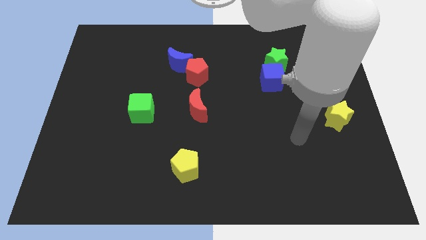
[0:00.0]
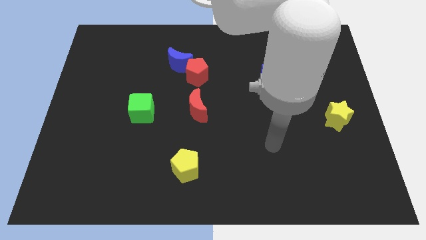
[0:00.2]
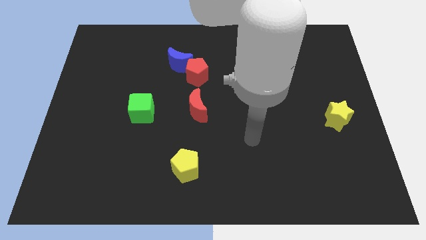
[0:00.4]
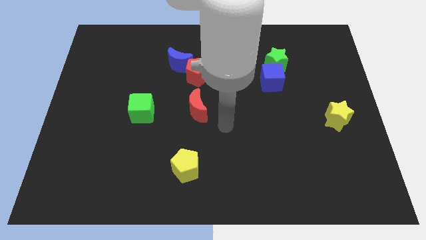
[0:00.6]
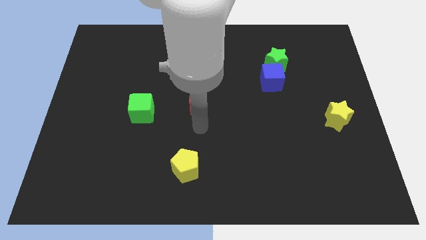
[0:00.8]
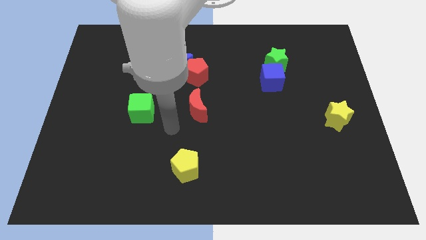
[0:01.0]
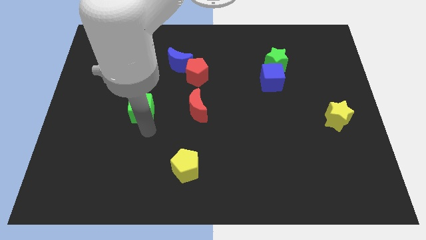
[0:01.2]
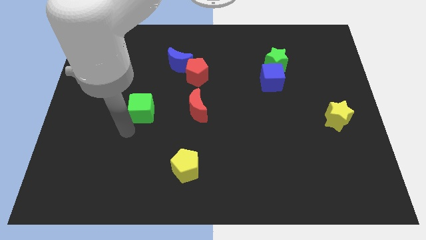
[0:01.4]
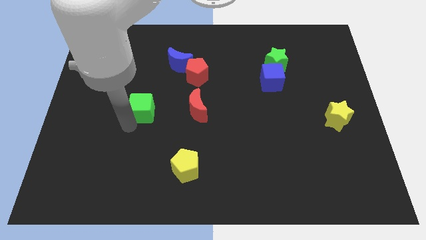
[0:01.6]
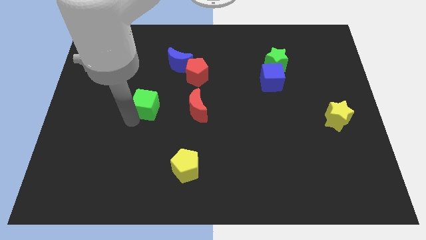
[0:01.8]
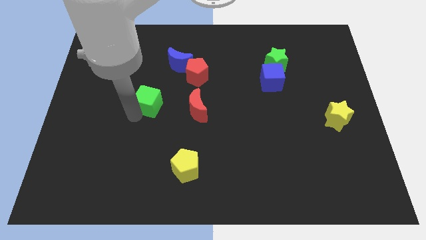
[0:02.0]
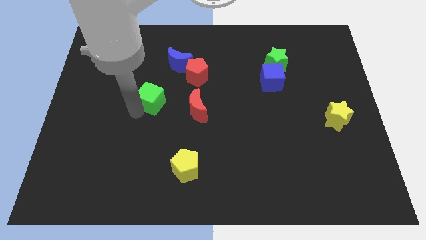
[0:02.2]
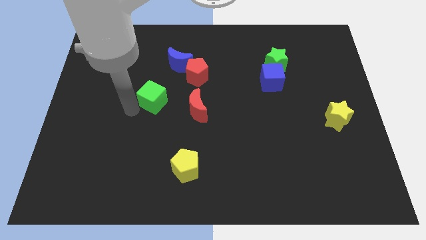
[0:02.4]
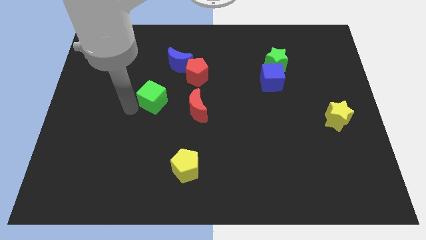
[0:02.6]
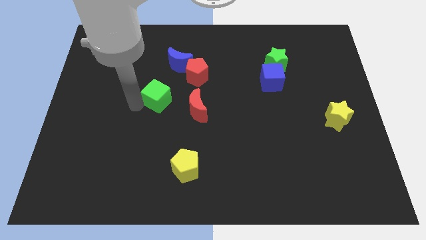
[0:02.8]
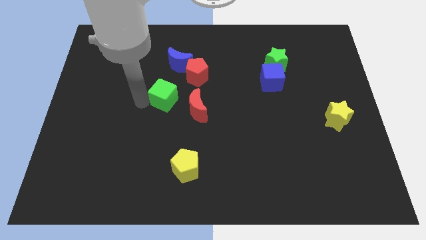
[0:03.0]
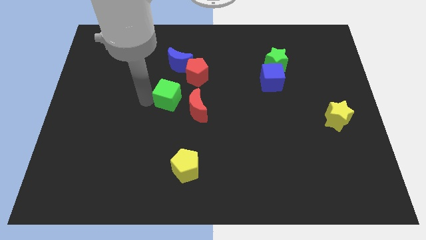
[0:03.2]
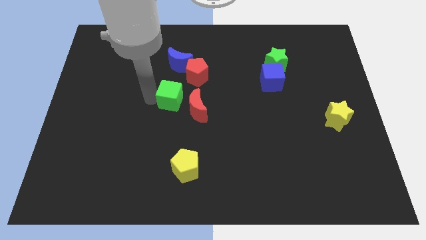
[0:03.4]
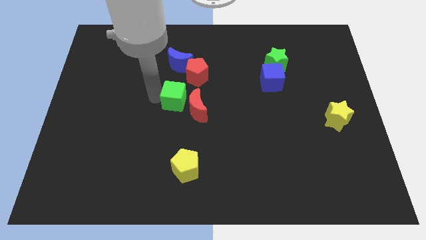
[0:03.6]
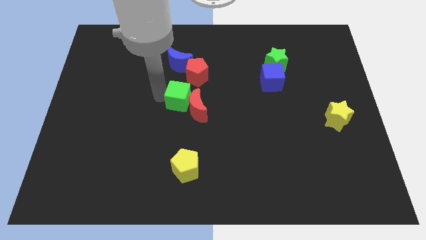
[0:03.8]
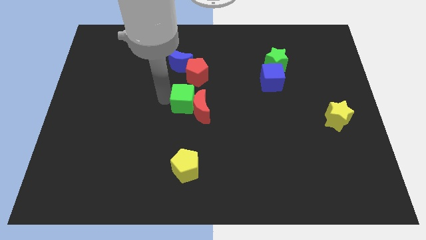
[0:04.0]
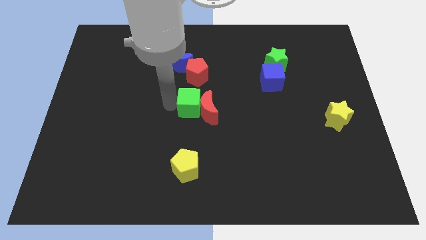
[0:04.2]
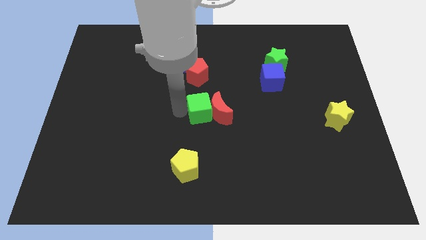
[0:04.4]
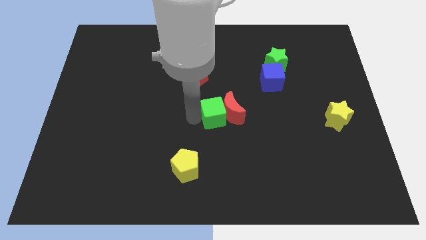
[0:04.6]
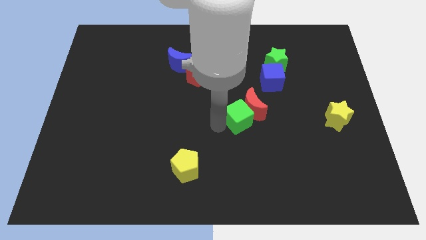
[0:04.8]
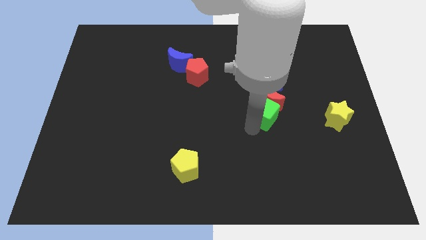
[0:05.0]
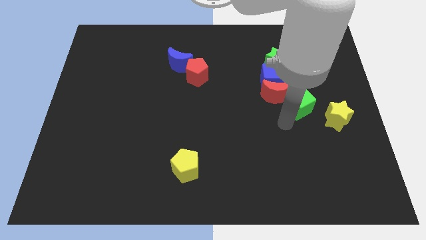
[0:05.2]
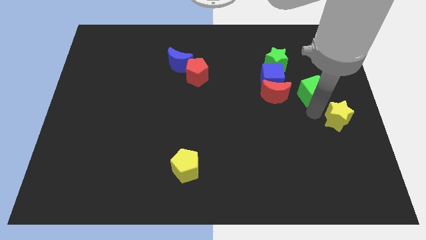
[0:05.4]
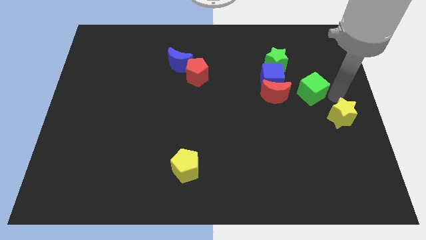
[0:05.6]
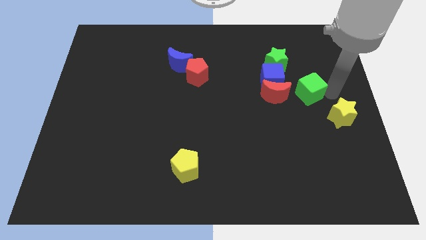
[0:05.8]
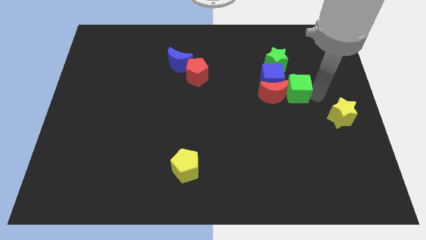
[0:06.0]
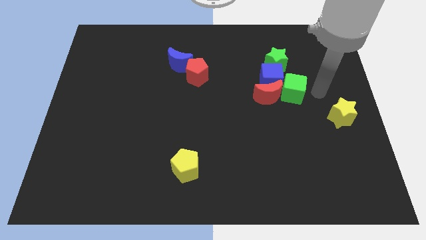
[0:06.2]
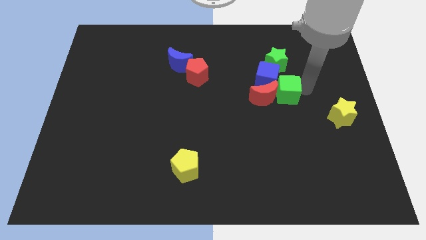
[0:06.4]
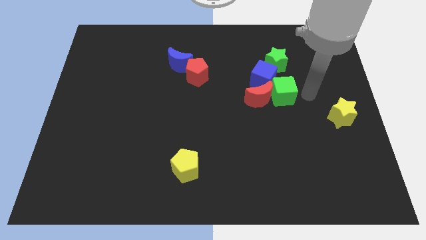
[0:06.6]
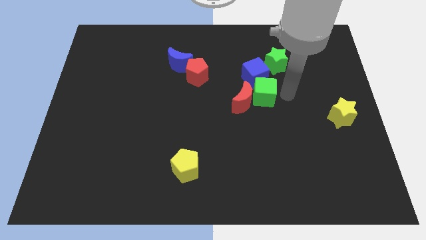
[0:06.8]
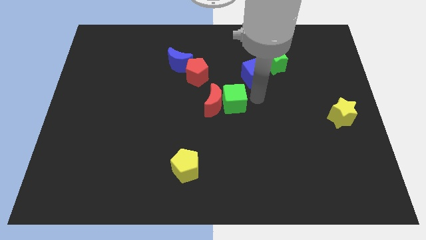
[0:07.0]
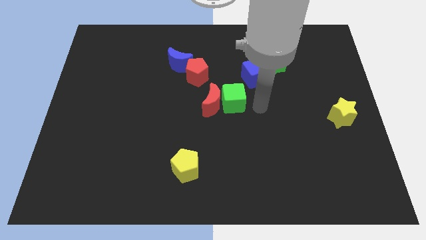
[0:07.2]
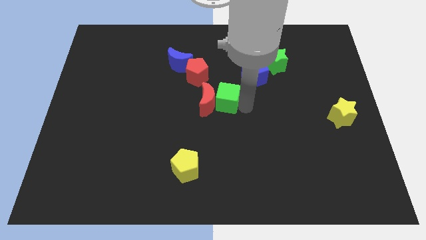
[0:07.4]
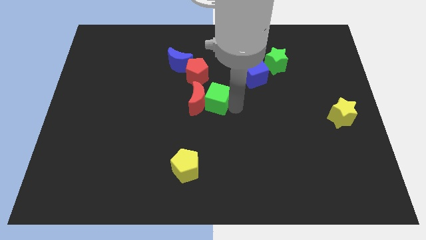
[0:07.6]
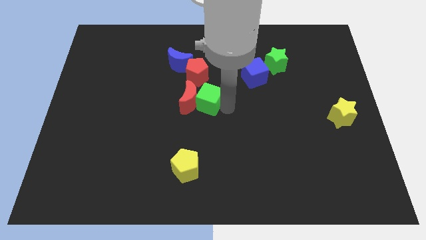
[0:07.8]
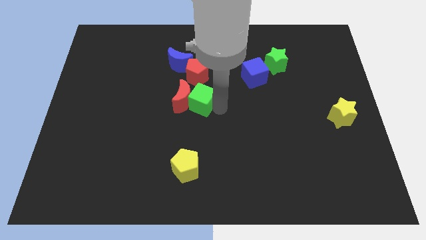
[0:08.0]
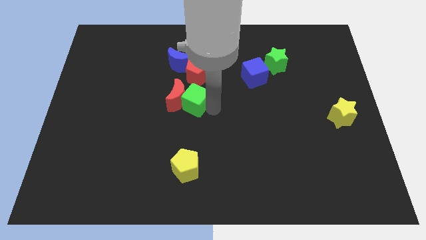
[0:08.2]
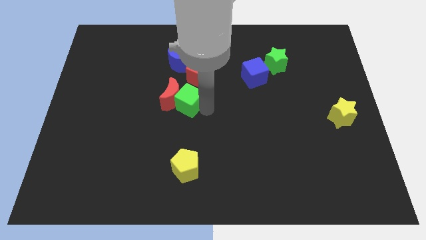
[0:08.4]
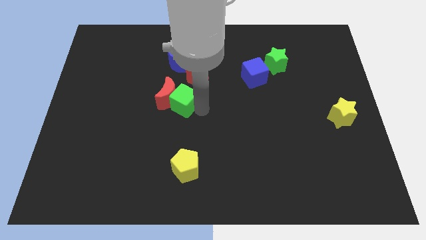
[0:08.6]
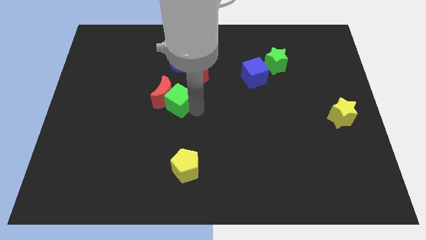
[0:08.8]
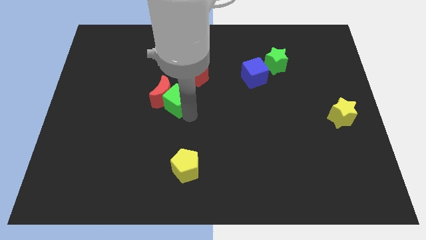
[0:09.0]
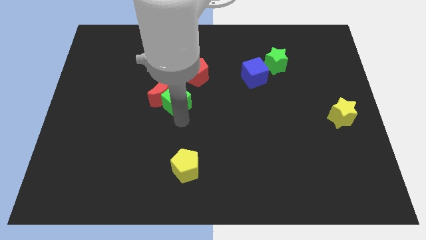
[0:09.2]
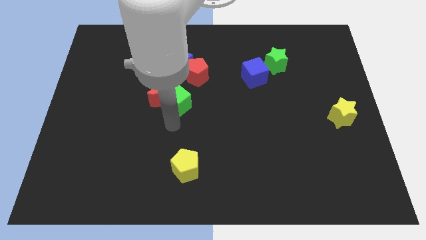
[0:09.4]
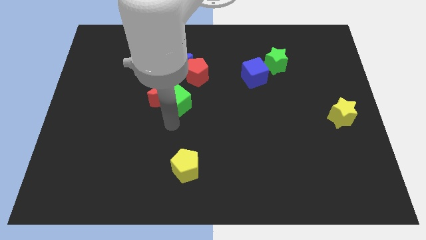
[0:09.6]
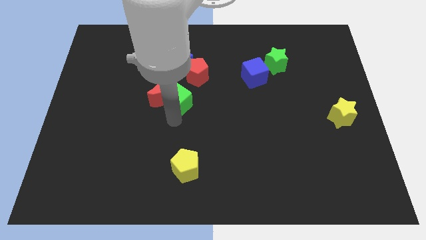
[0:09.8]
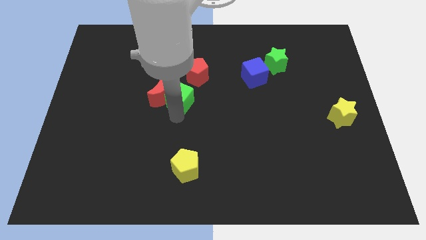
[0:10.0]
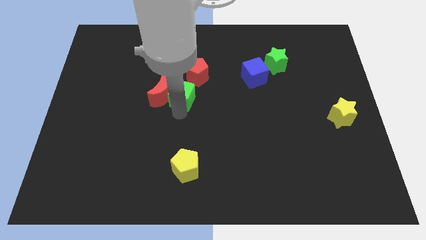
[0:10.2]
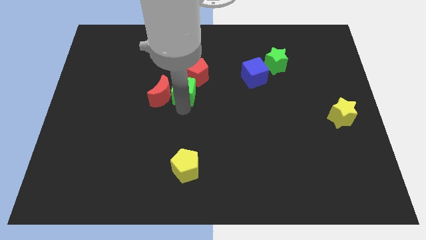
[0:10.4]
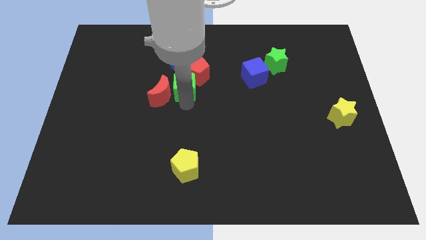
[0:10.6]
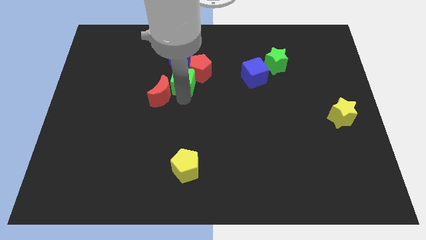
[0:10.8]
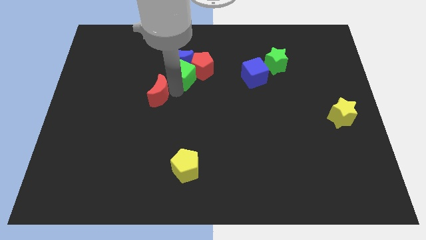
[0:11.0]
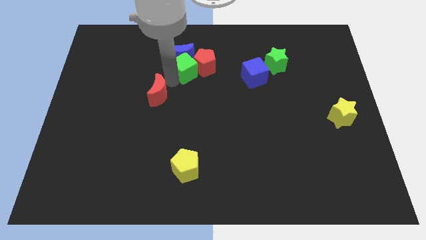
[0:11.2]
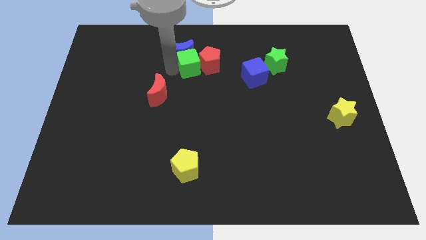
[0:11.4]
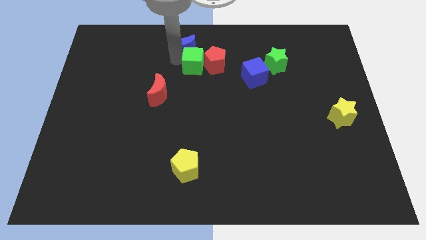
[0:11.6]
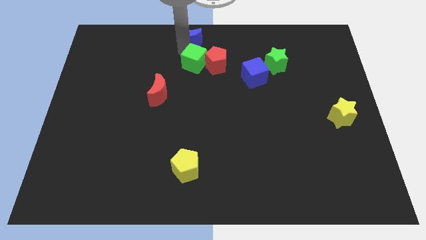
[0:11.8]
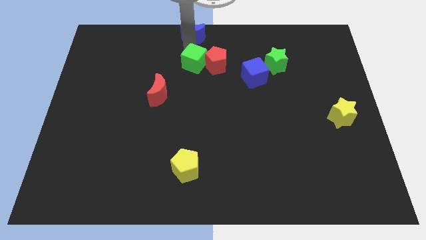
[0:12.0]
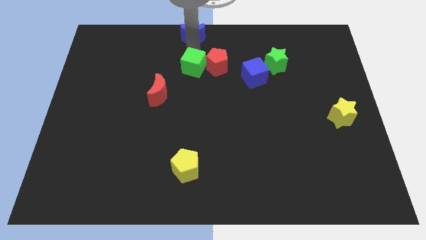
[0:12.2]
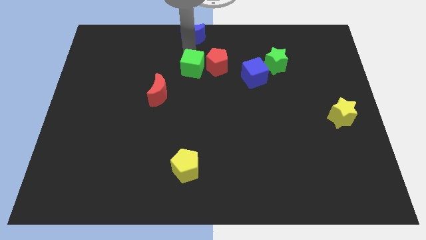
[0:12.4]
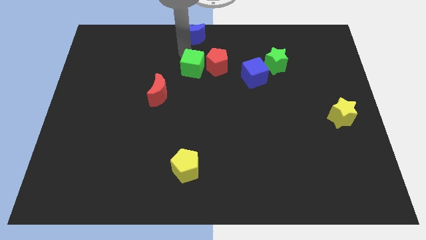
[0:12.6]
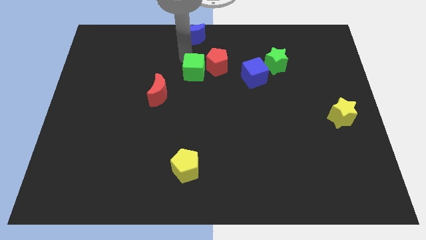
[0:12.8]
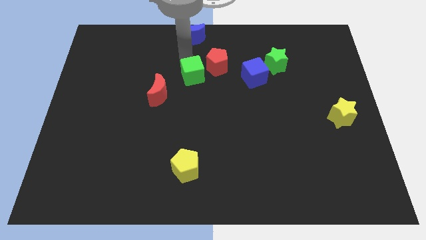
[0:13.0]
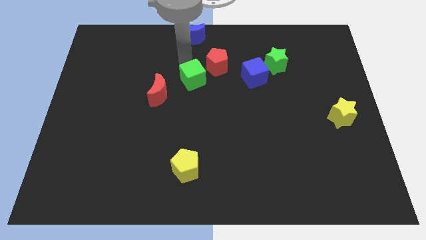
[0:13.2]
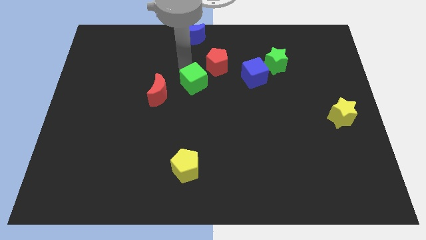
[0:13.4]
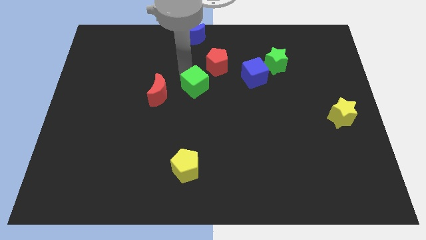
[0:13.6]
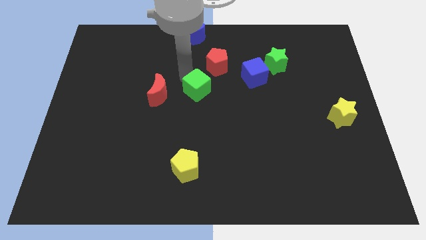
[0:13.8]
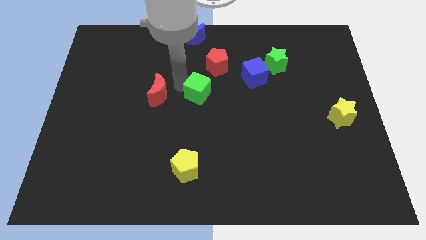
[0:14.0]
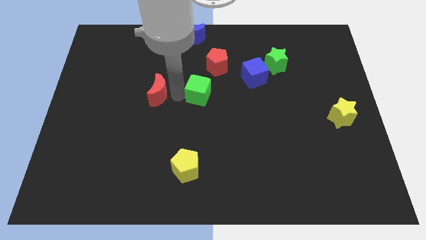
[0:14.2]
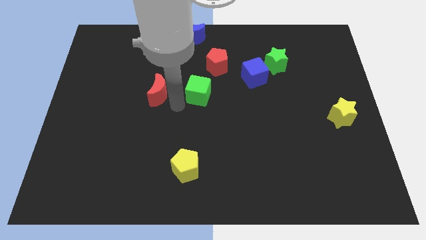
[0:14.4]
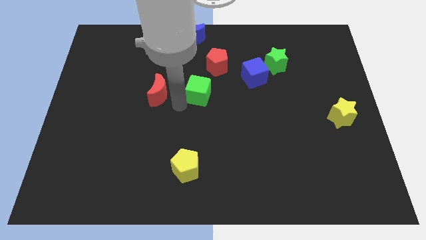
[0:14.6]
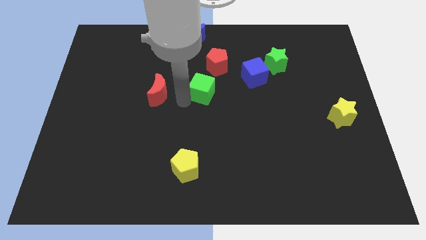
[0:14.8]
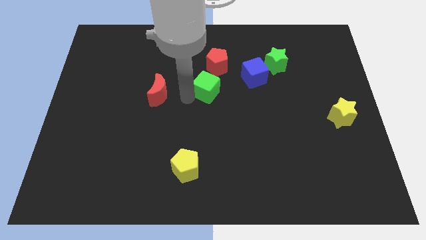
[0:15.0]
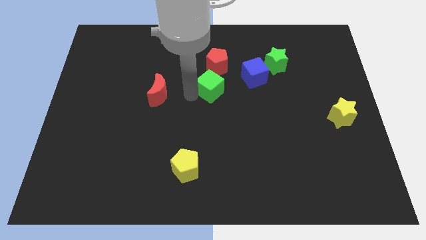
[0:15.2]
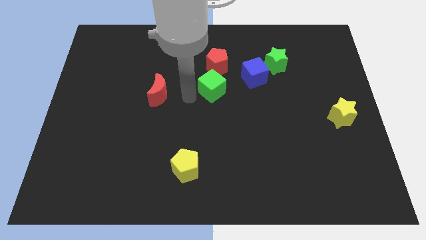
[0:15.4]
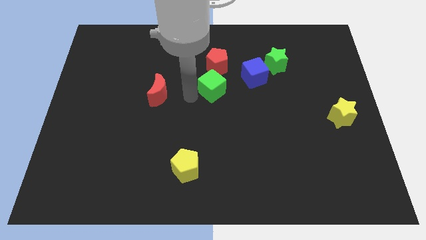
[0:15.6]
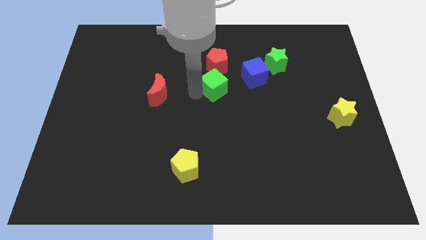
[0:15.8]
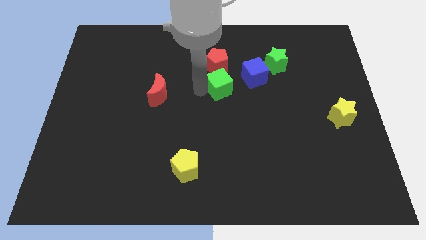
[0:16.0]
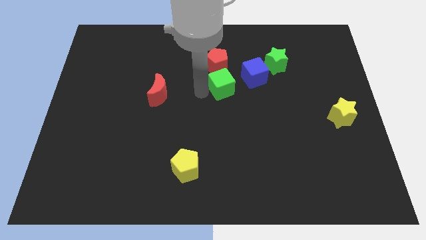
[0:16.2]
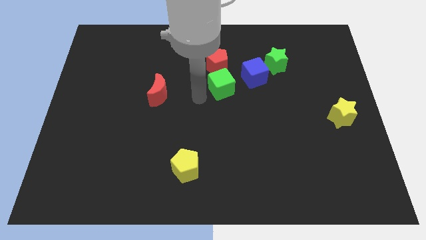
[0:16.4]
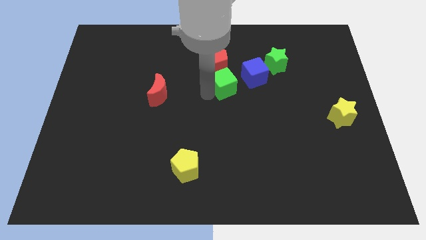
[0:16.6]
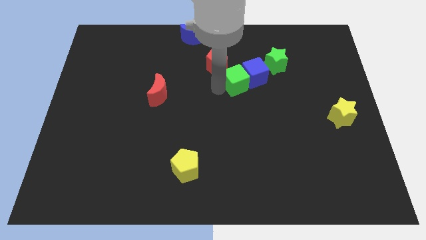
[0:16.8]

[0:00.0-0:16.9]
move the green cube to the bottom left of the green star
